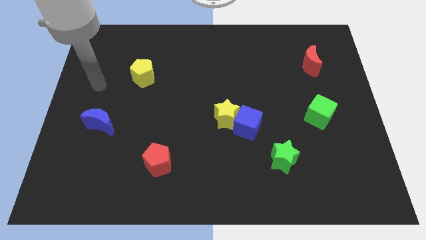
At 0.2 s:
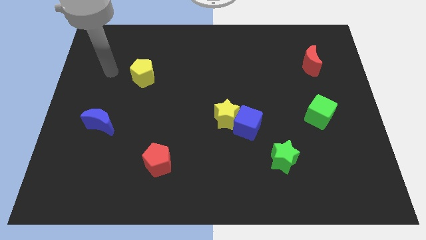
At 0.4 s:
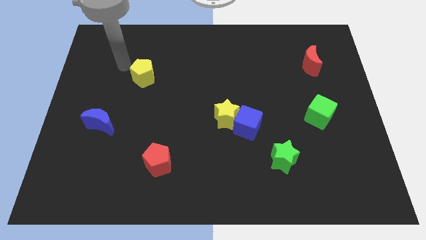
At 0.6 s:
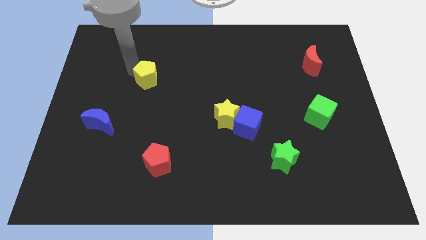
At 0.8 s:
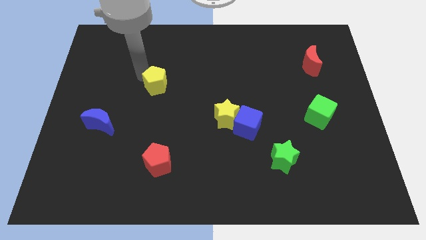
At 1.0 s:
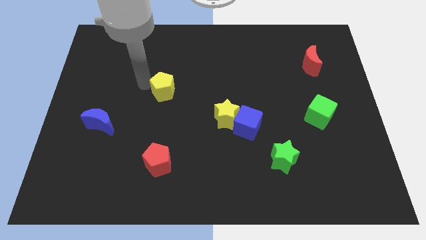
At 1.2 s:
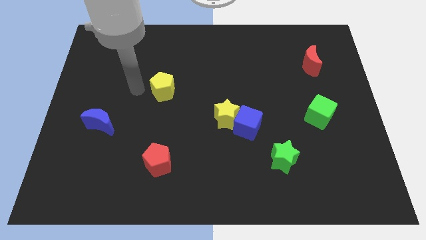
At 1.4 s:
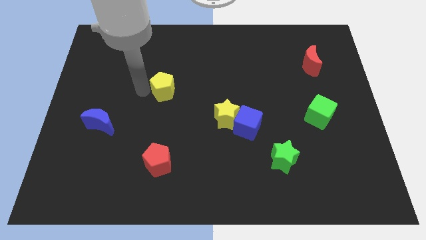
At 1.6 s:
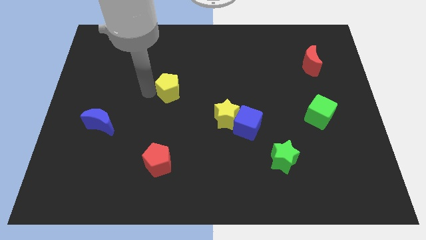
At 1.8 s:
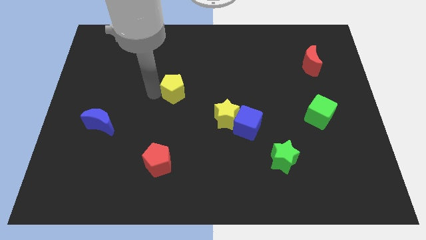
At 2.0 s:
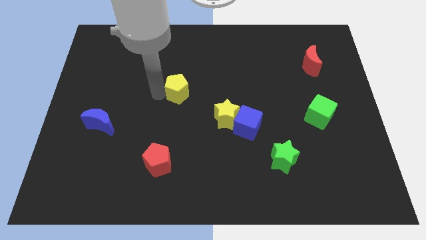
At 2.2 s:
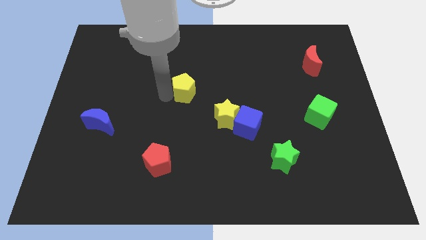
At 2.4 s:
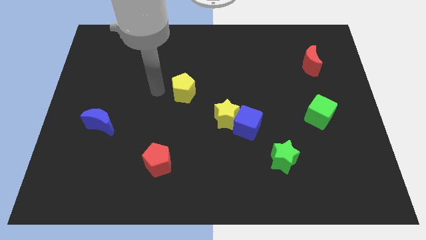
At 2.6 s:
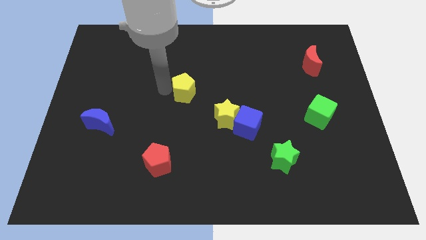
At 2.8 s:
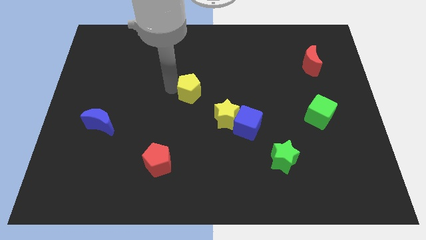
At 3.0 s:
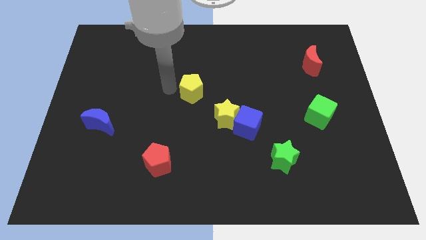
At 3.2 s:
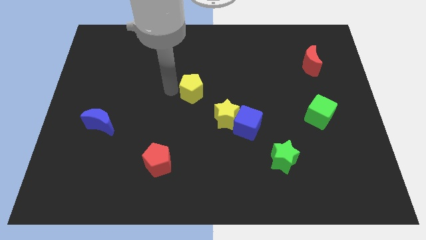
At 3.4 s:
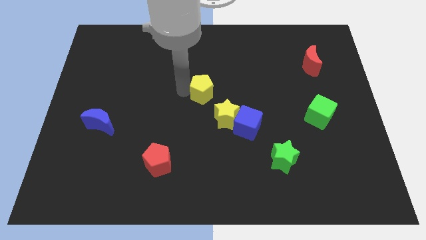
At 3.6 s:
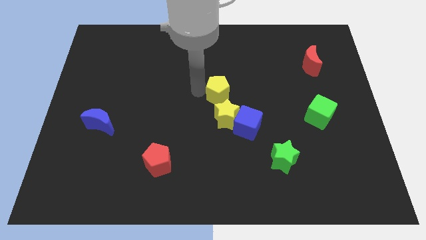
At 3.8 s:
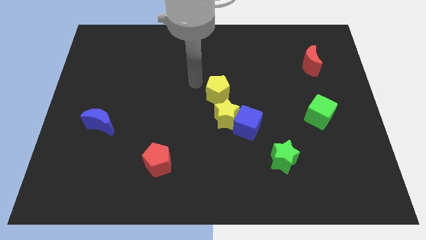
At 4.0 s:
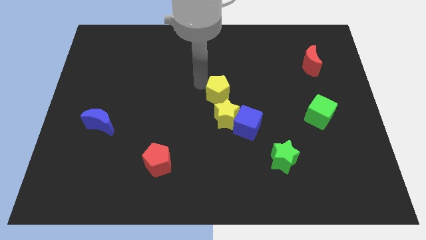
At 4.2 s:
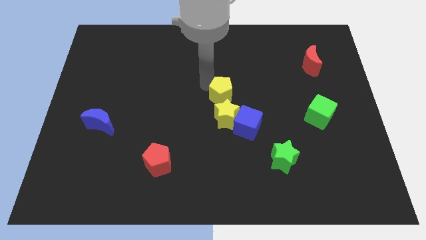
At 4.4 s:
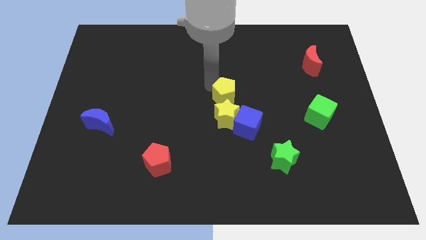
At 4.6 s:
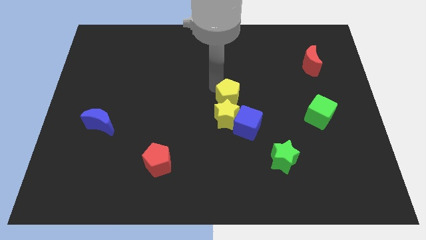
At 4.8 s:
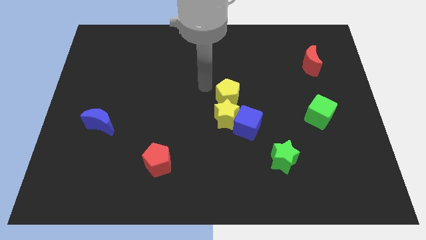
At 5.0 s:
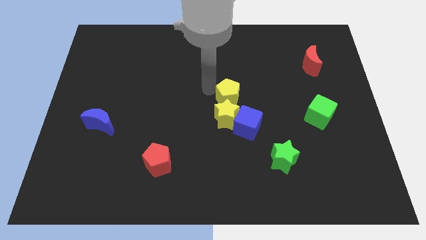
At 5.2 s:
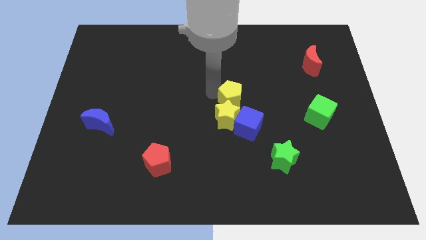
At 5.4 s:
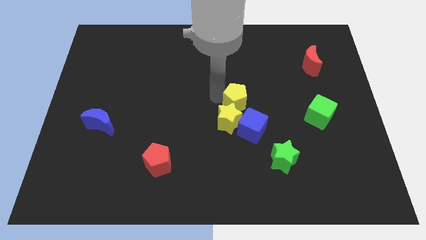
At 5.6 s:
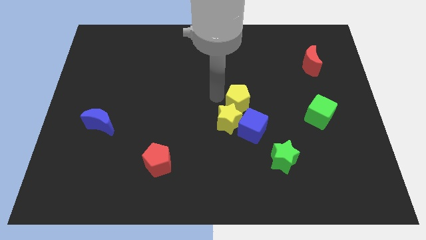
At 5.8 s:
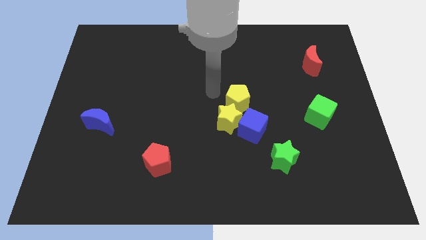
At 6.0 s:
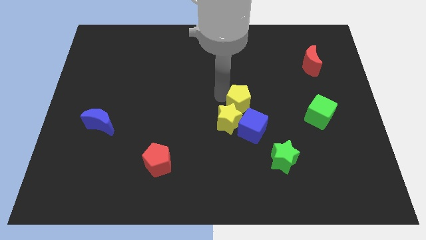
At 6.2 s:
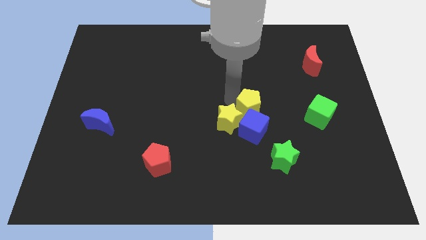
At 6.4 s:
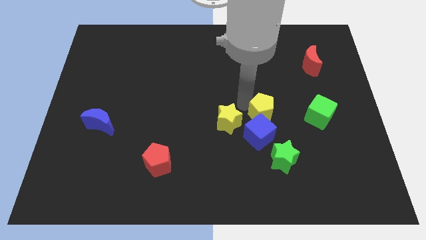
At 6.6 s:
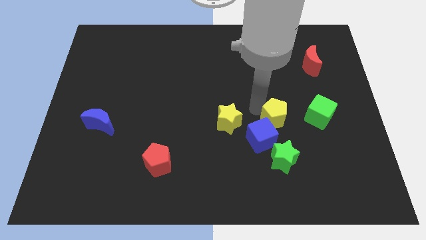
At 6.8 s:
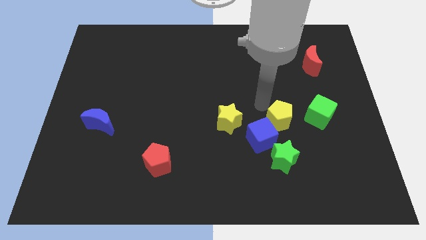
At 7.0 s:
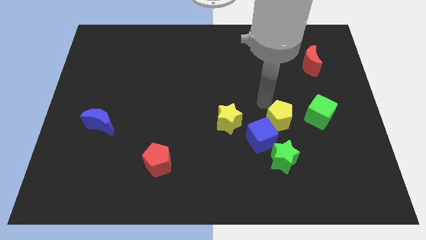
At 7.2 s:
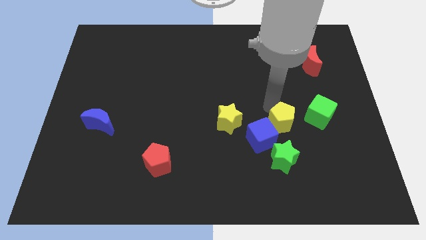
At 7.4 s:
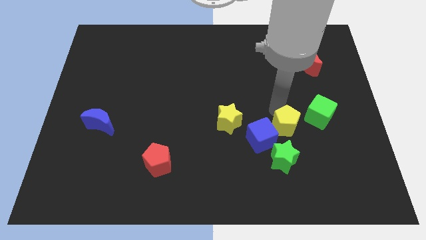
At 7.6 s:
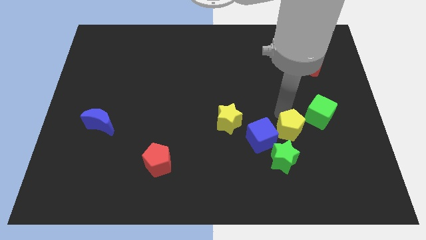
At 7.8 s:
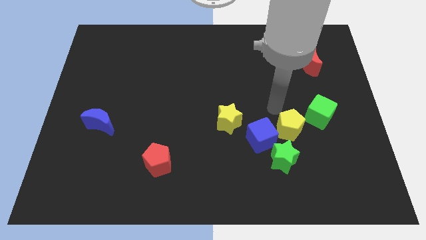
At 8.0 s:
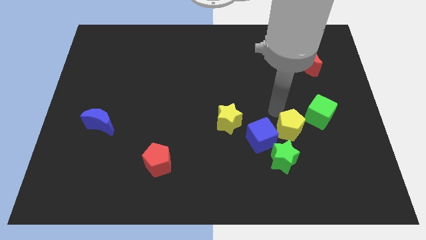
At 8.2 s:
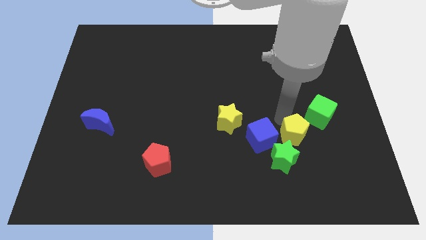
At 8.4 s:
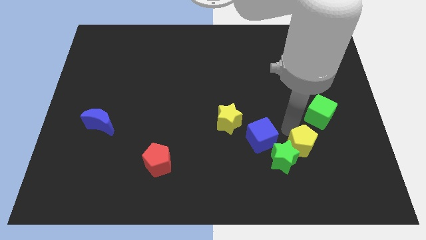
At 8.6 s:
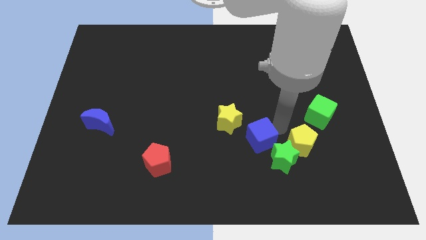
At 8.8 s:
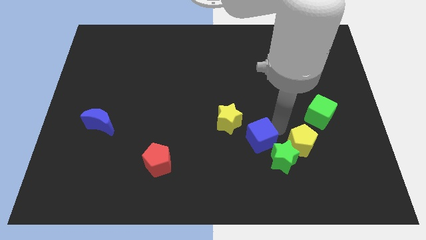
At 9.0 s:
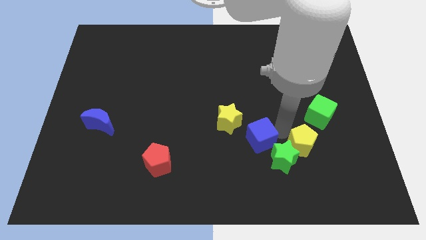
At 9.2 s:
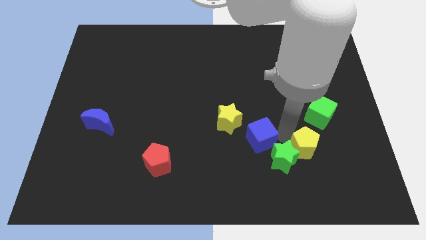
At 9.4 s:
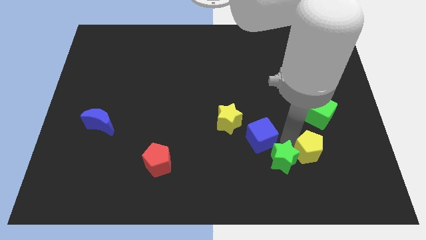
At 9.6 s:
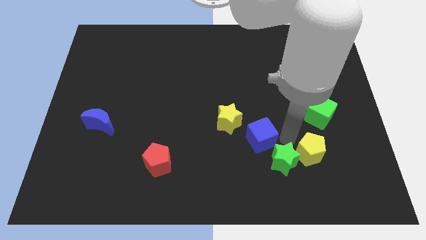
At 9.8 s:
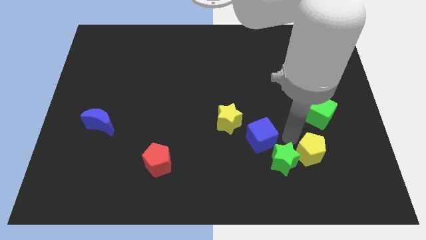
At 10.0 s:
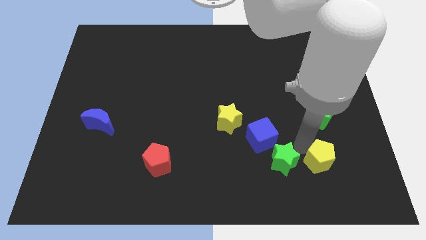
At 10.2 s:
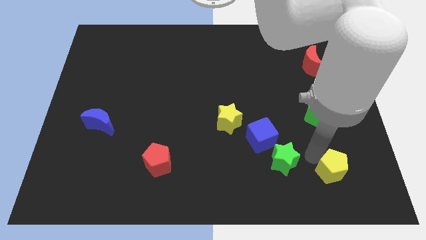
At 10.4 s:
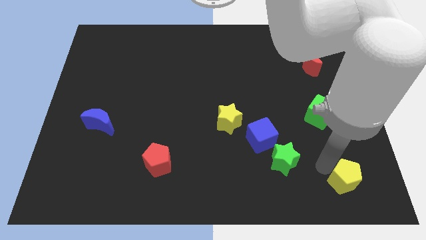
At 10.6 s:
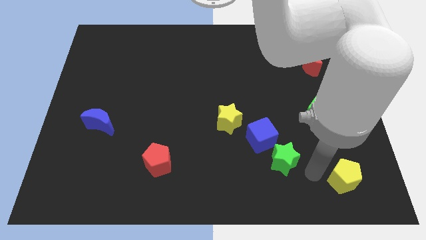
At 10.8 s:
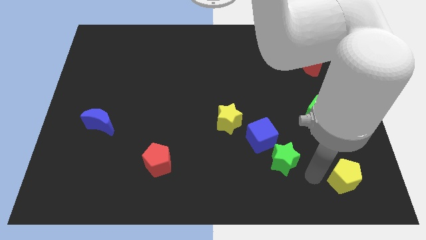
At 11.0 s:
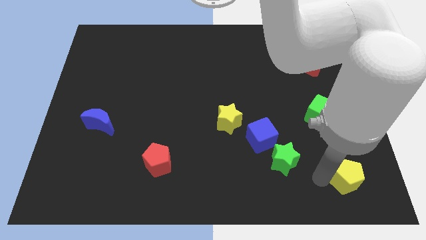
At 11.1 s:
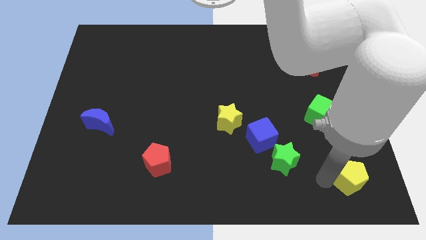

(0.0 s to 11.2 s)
move the yellow pentagon to the bottom right of the board
